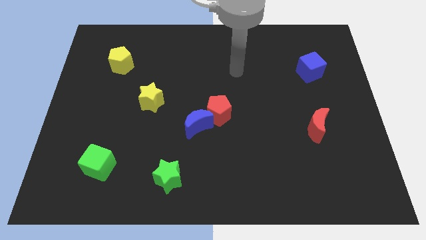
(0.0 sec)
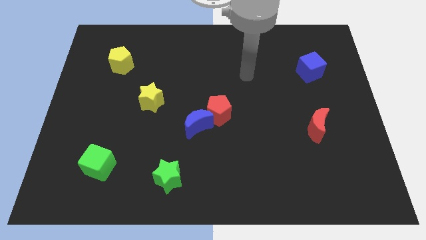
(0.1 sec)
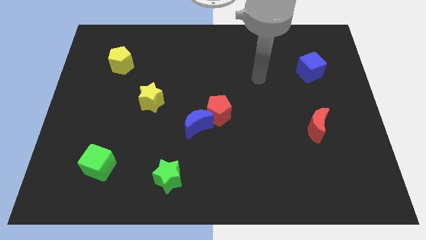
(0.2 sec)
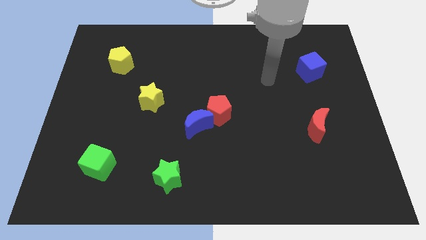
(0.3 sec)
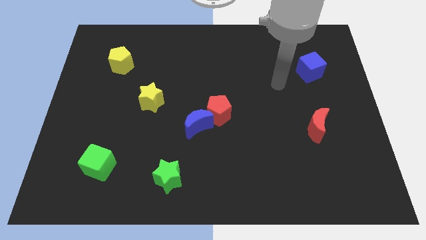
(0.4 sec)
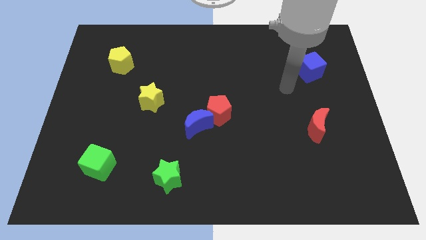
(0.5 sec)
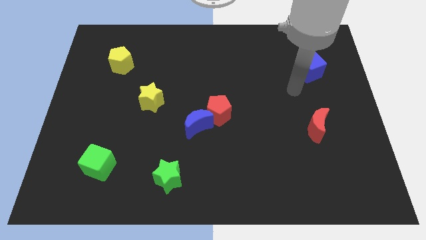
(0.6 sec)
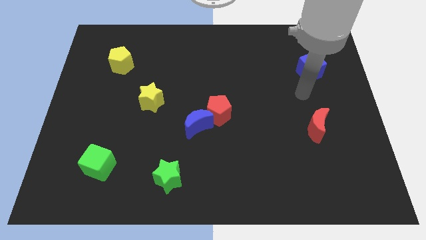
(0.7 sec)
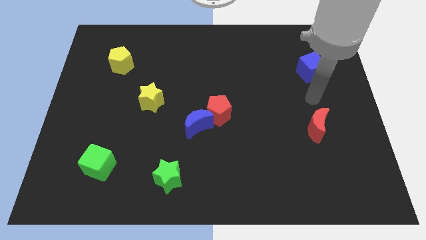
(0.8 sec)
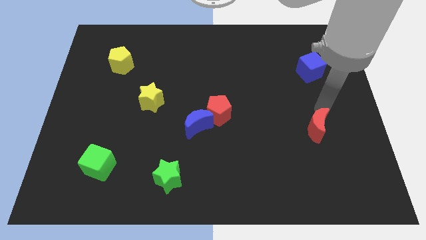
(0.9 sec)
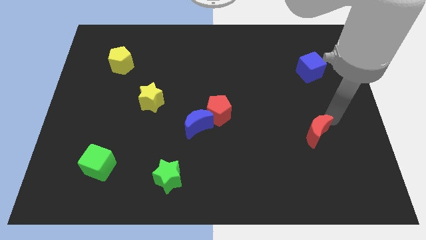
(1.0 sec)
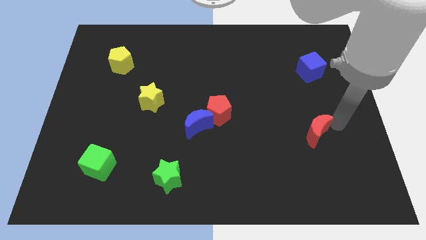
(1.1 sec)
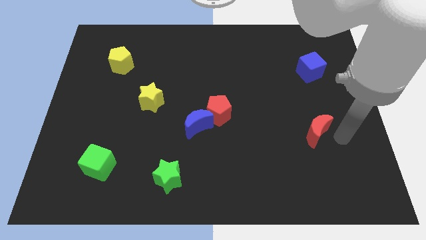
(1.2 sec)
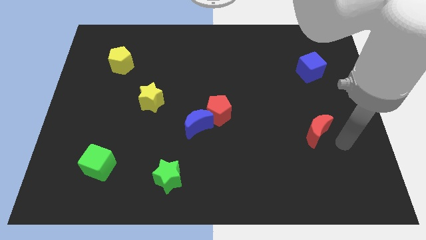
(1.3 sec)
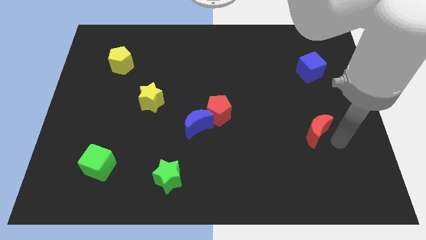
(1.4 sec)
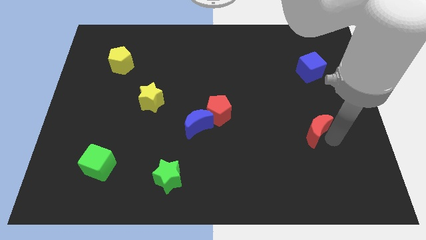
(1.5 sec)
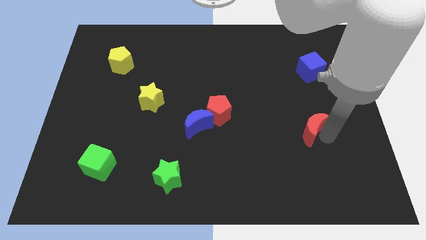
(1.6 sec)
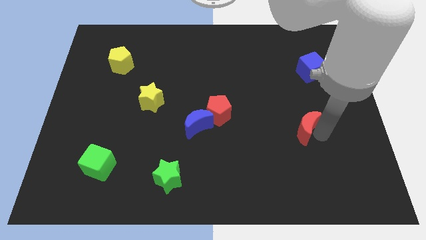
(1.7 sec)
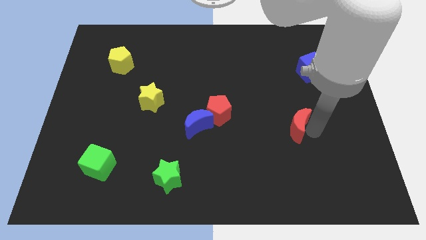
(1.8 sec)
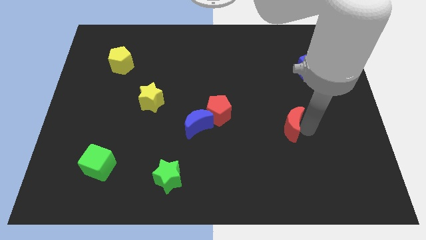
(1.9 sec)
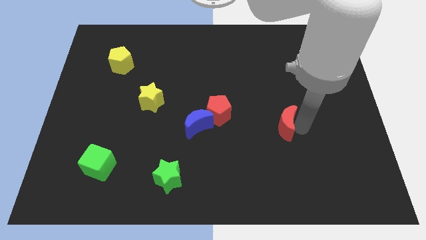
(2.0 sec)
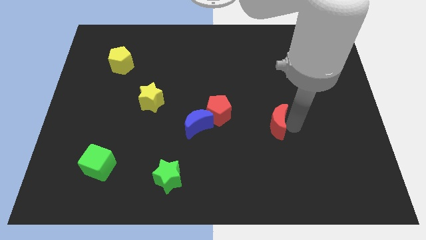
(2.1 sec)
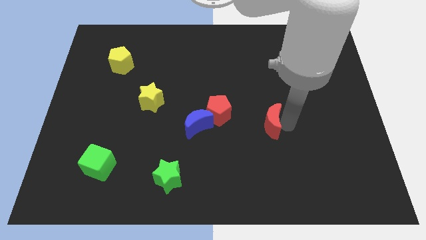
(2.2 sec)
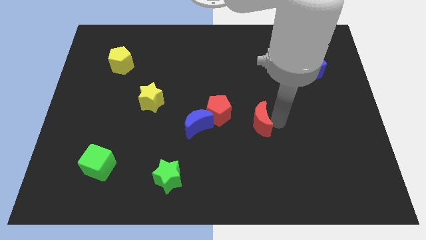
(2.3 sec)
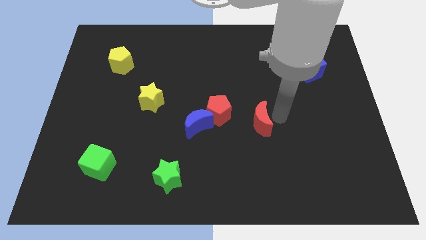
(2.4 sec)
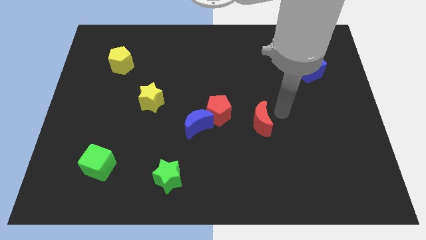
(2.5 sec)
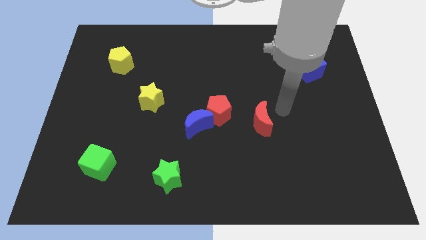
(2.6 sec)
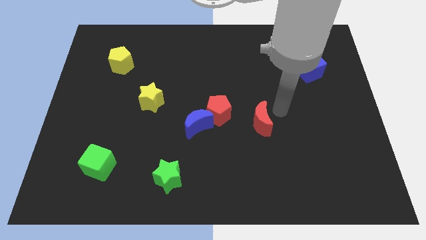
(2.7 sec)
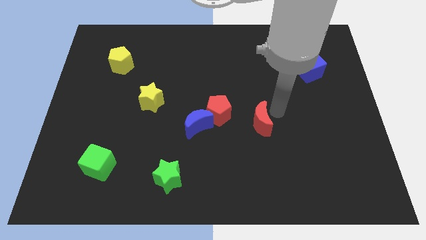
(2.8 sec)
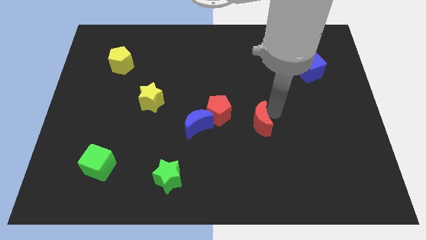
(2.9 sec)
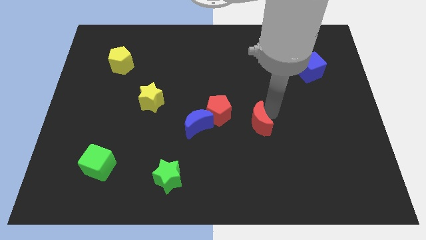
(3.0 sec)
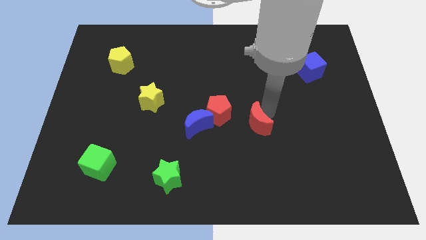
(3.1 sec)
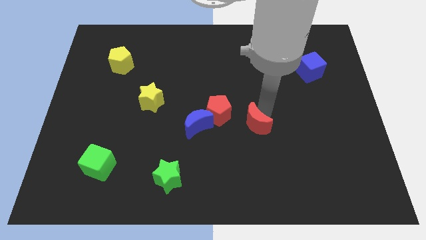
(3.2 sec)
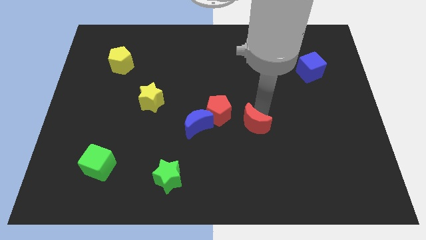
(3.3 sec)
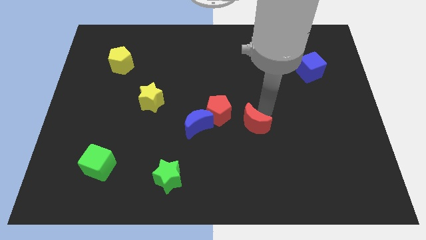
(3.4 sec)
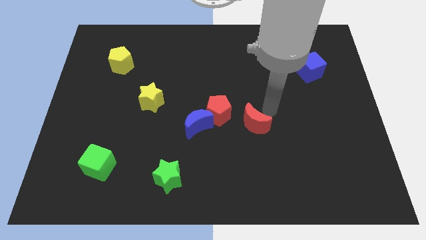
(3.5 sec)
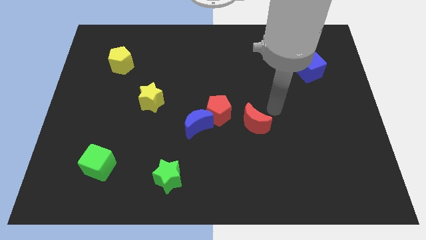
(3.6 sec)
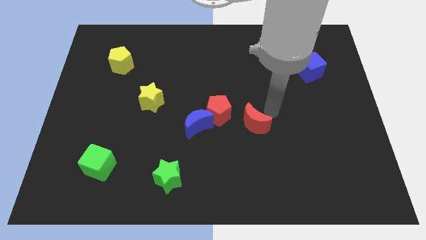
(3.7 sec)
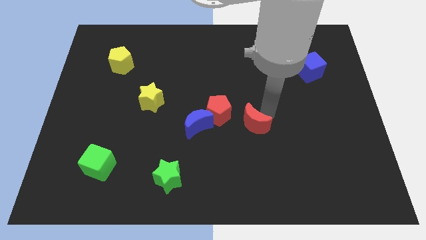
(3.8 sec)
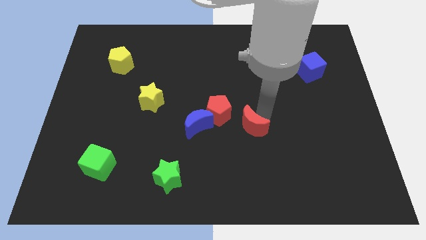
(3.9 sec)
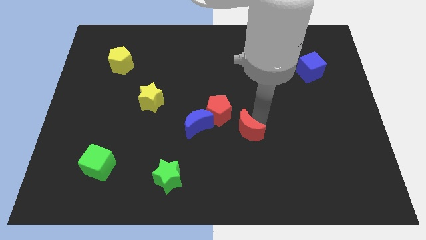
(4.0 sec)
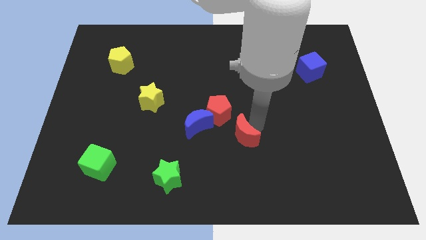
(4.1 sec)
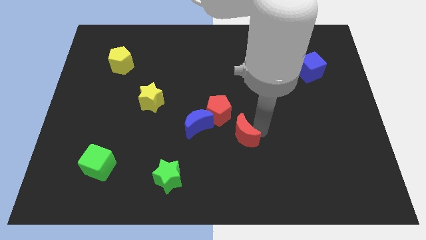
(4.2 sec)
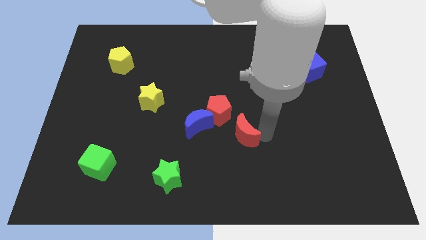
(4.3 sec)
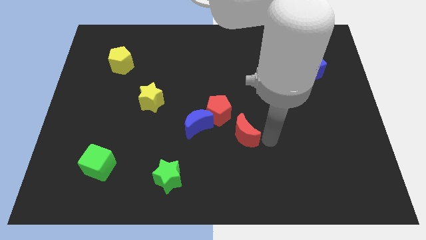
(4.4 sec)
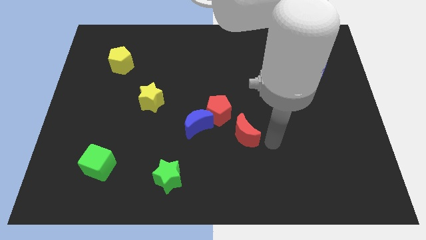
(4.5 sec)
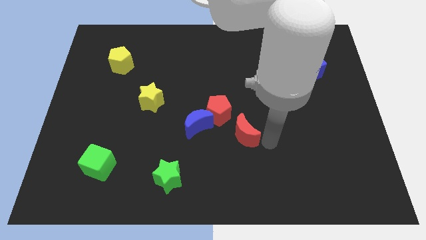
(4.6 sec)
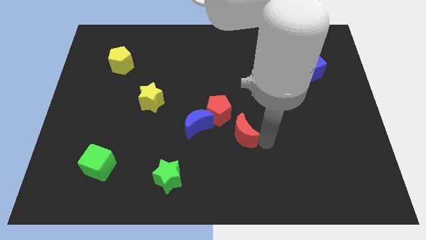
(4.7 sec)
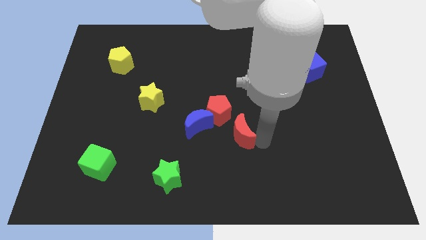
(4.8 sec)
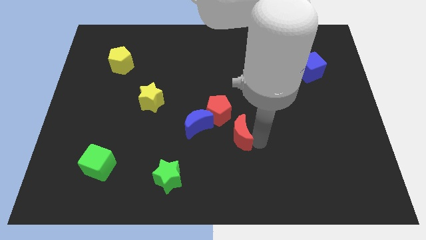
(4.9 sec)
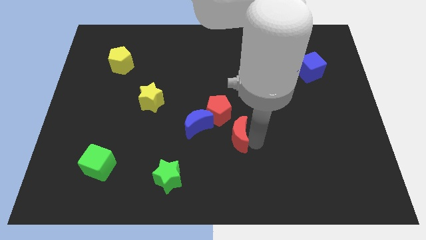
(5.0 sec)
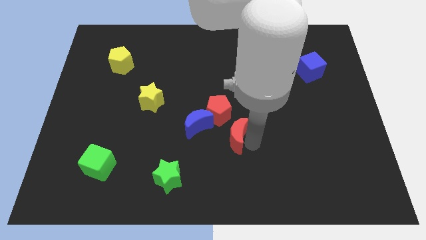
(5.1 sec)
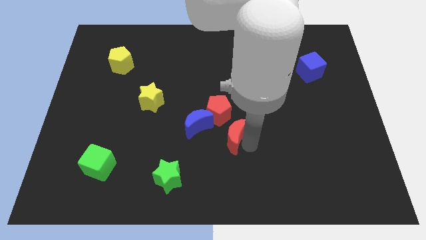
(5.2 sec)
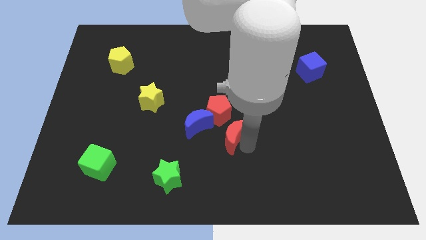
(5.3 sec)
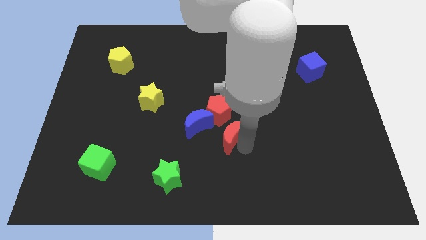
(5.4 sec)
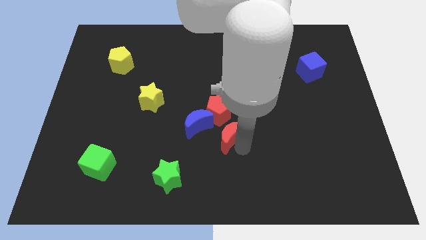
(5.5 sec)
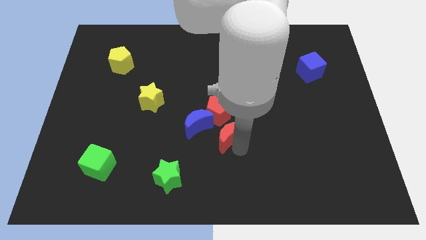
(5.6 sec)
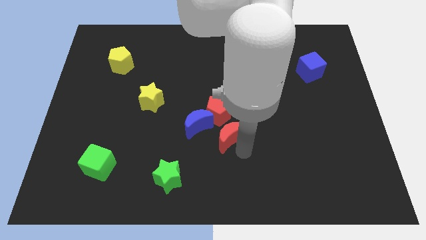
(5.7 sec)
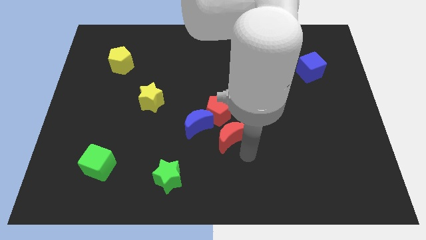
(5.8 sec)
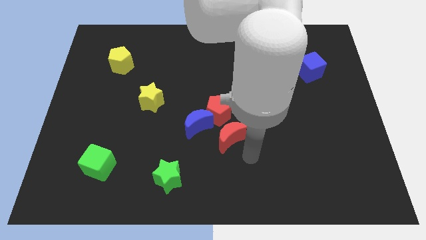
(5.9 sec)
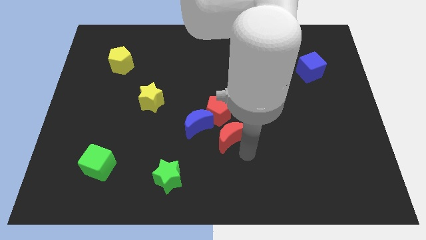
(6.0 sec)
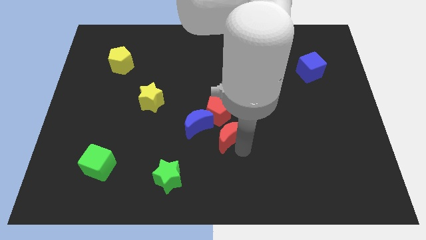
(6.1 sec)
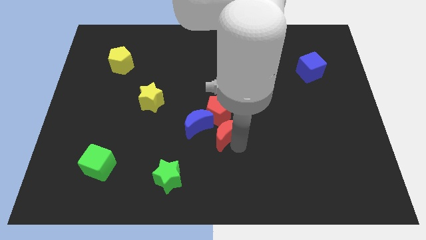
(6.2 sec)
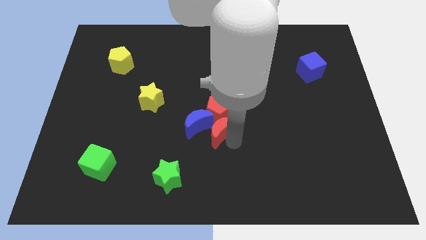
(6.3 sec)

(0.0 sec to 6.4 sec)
put the red moon towards the blue moon
